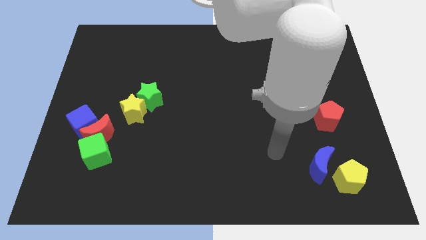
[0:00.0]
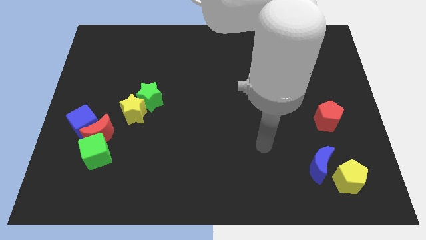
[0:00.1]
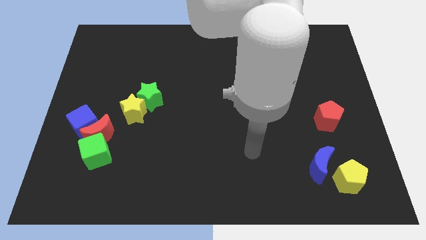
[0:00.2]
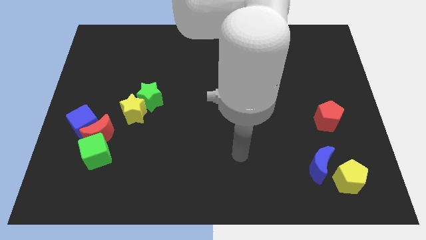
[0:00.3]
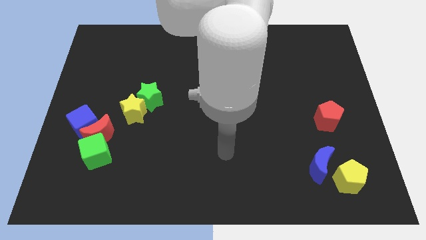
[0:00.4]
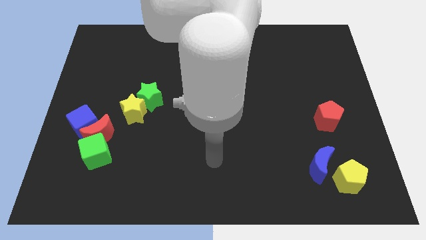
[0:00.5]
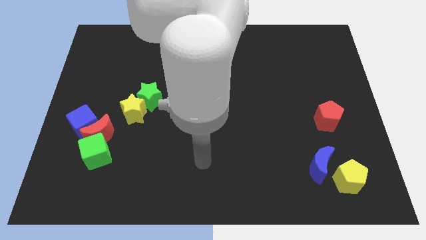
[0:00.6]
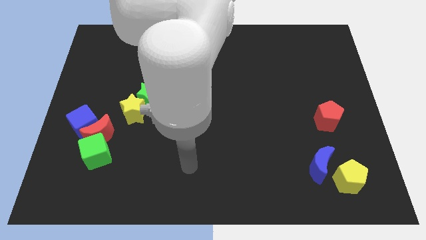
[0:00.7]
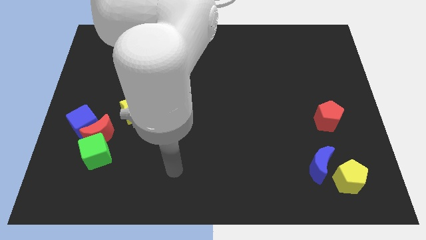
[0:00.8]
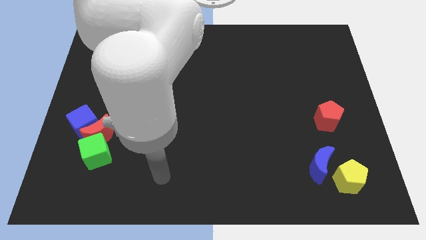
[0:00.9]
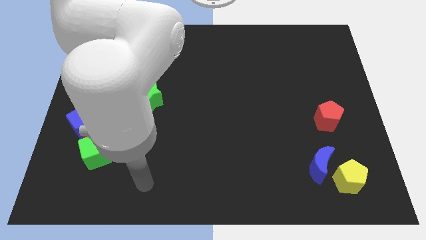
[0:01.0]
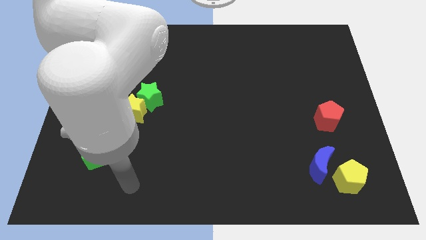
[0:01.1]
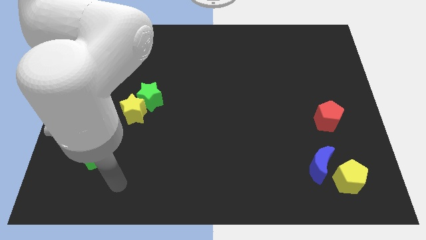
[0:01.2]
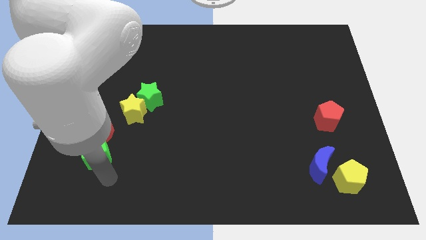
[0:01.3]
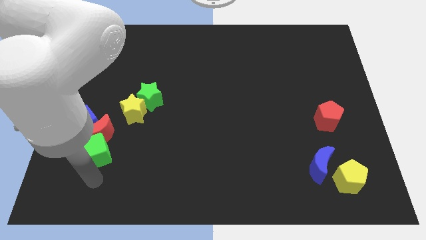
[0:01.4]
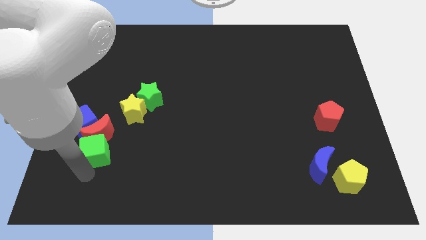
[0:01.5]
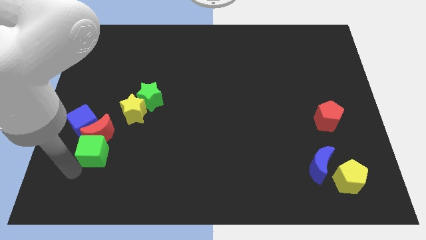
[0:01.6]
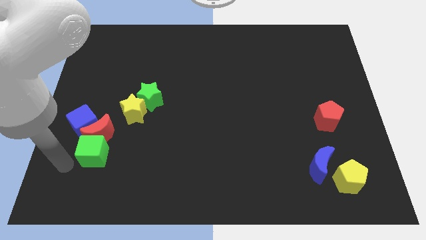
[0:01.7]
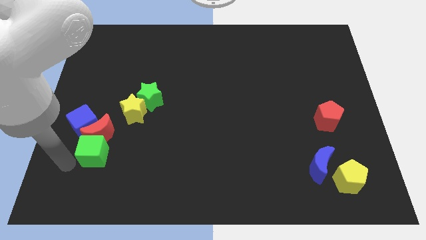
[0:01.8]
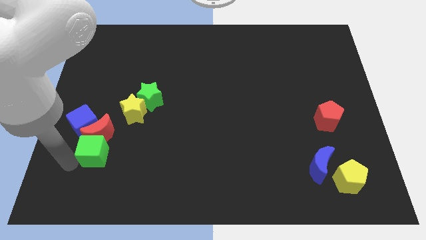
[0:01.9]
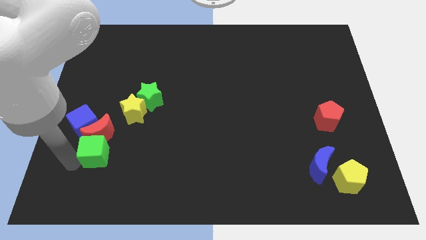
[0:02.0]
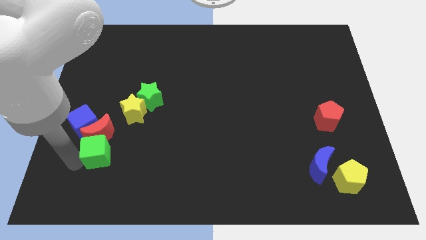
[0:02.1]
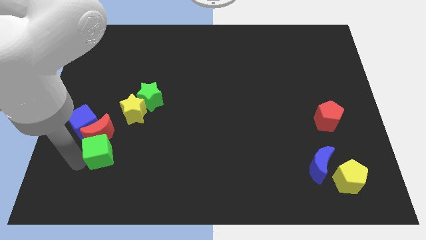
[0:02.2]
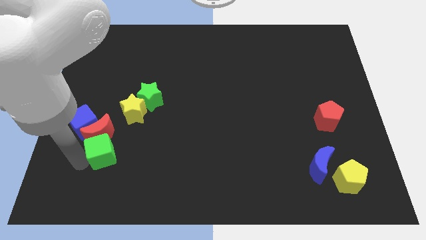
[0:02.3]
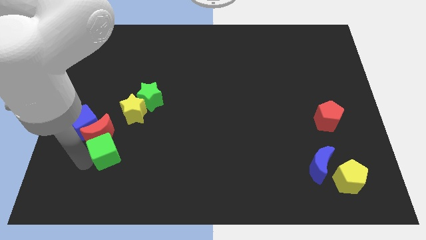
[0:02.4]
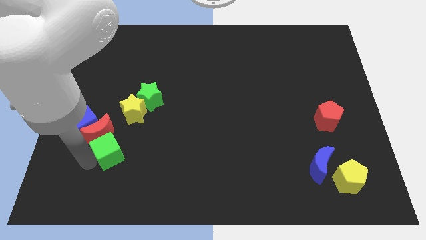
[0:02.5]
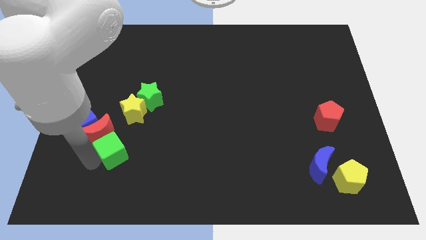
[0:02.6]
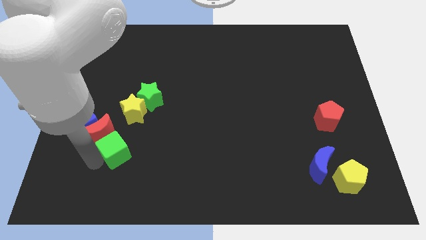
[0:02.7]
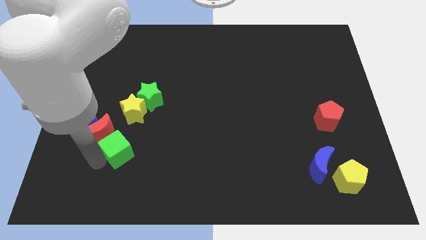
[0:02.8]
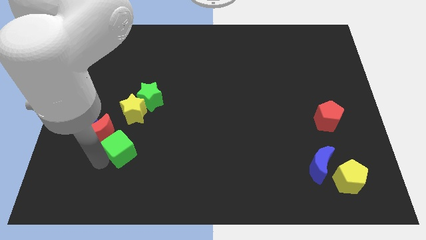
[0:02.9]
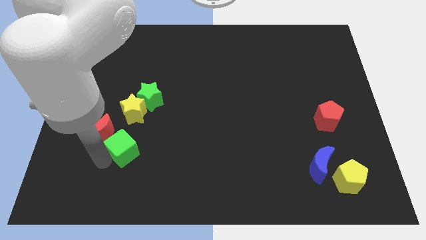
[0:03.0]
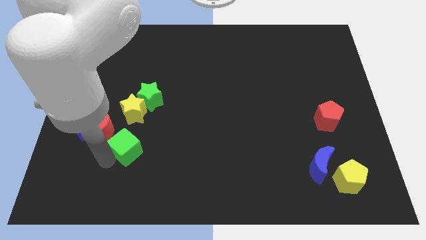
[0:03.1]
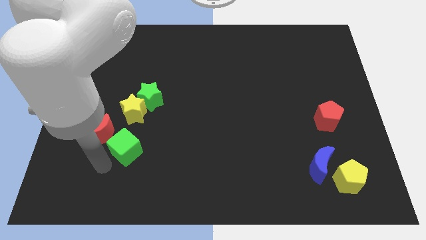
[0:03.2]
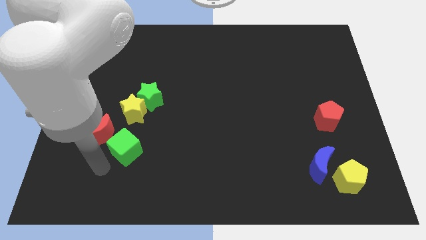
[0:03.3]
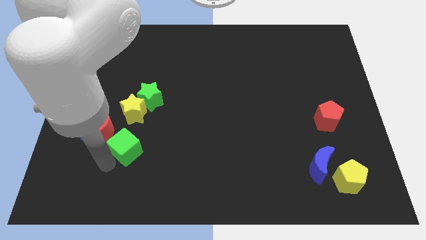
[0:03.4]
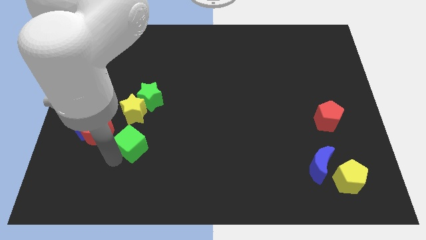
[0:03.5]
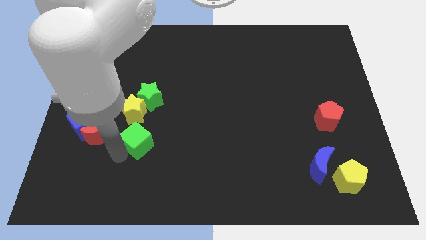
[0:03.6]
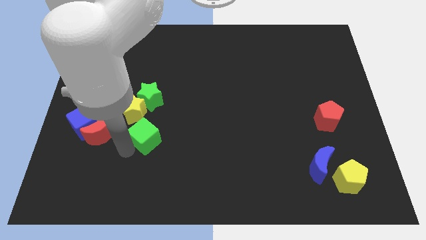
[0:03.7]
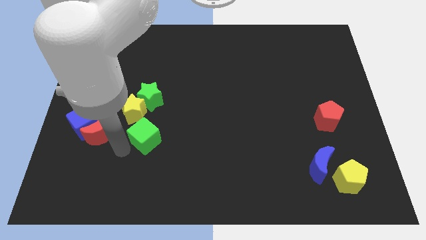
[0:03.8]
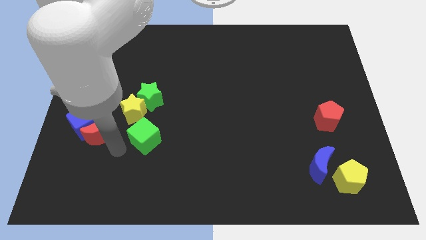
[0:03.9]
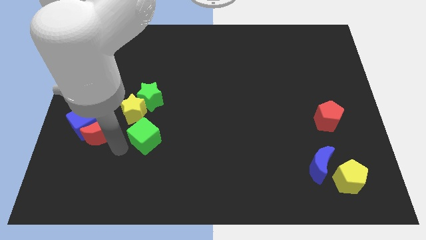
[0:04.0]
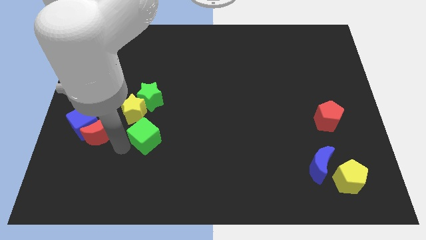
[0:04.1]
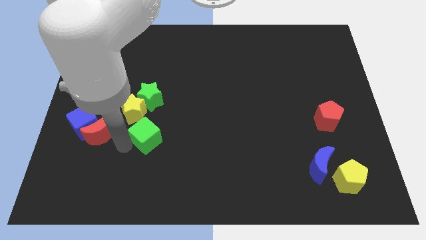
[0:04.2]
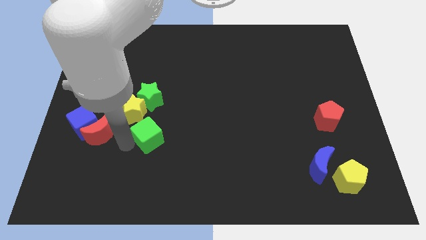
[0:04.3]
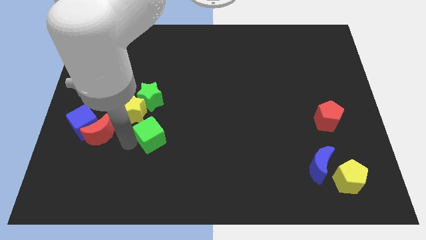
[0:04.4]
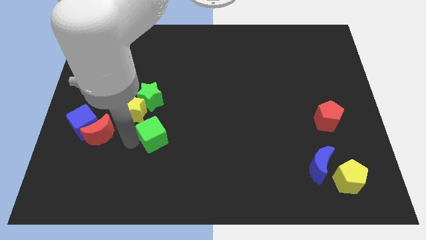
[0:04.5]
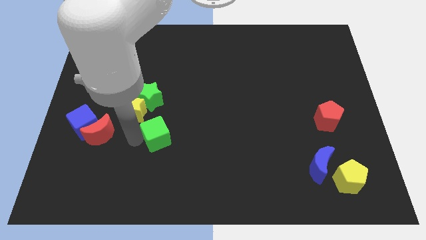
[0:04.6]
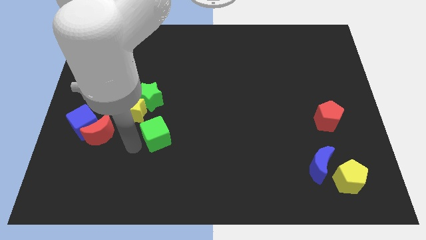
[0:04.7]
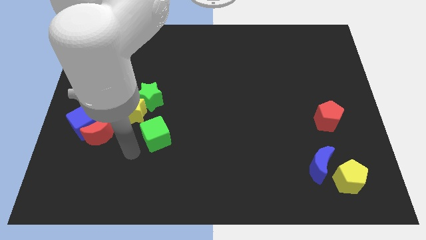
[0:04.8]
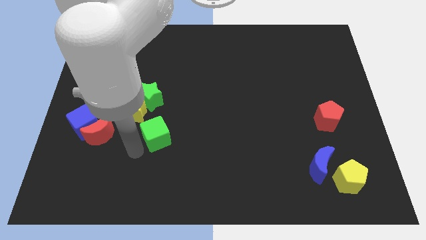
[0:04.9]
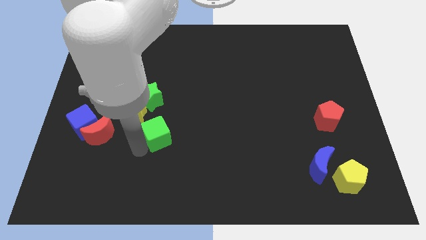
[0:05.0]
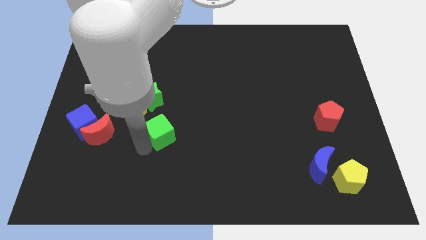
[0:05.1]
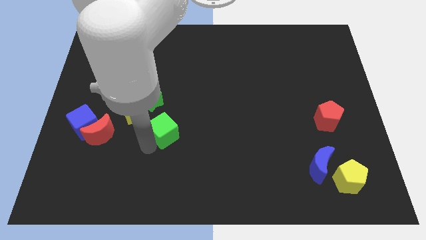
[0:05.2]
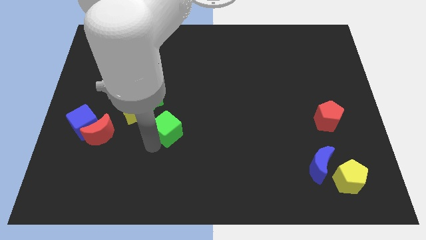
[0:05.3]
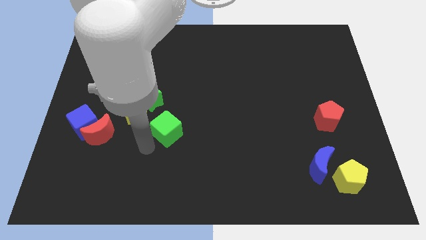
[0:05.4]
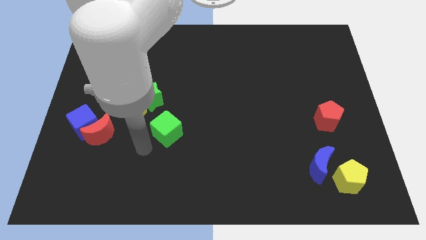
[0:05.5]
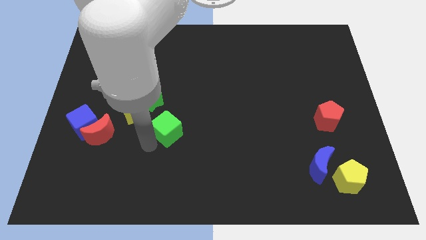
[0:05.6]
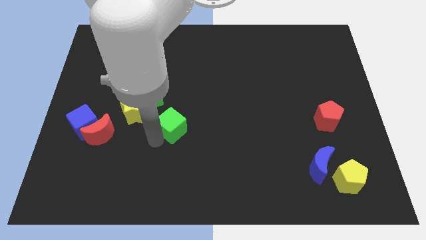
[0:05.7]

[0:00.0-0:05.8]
put the green cube to the middle of the board
